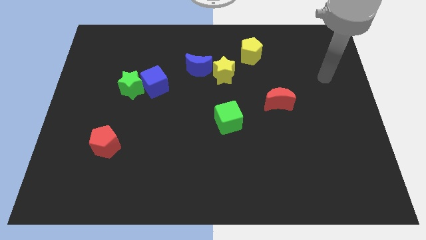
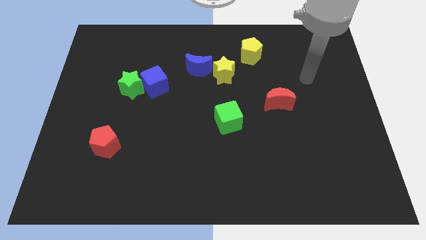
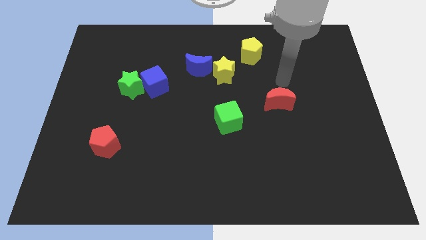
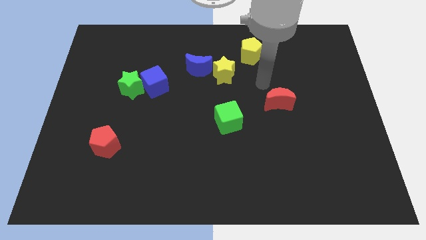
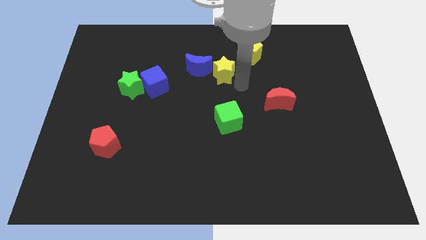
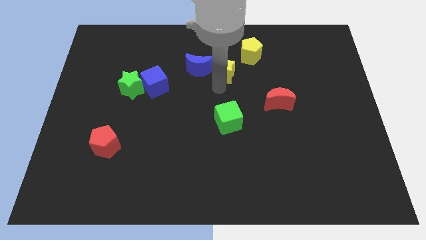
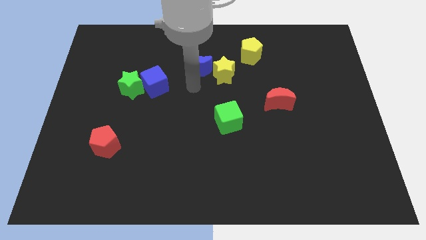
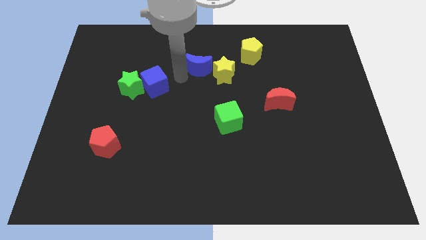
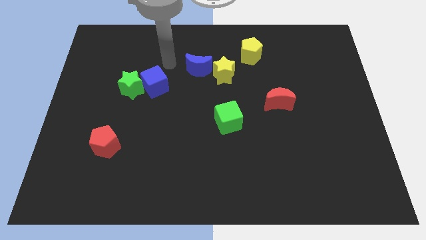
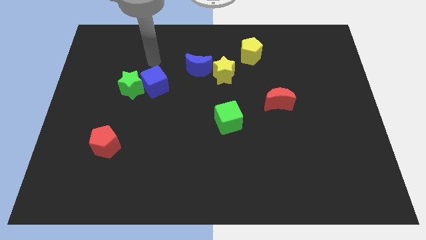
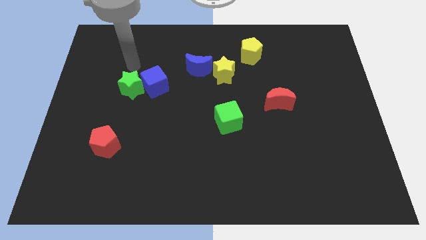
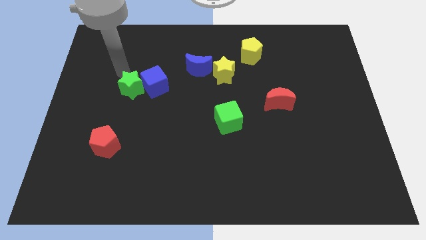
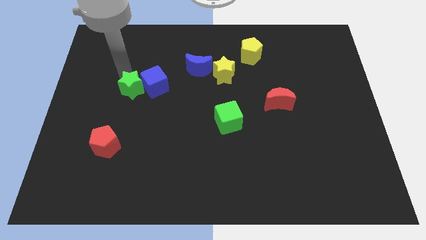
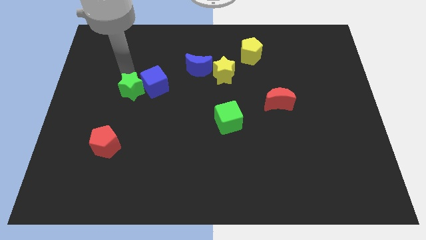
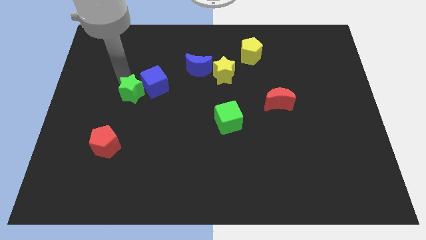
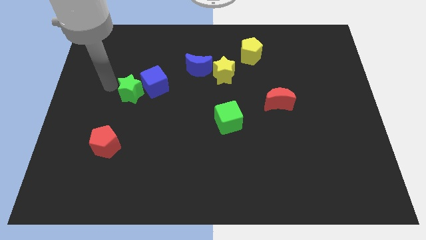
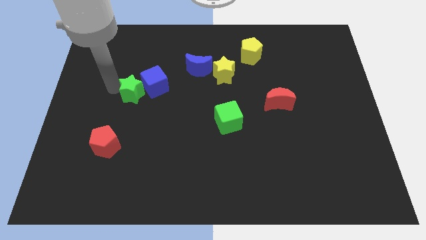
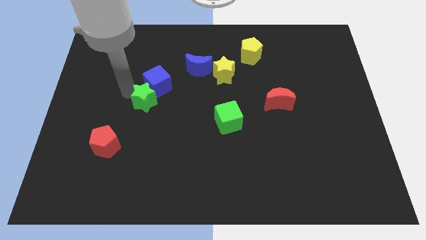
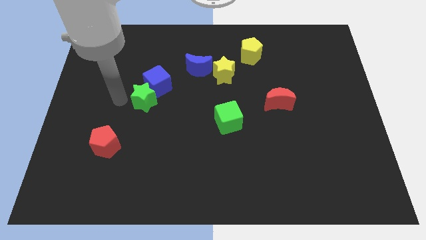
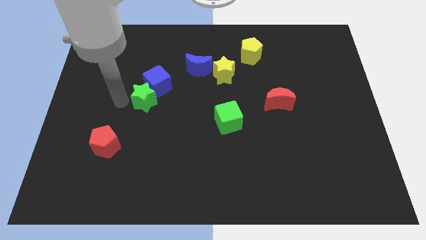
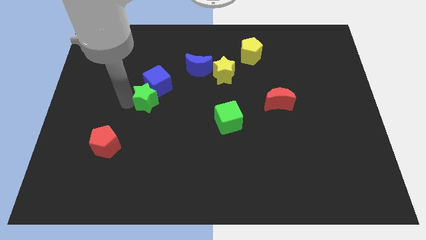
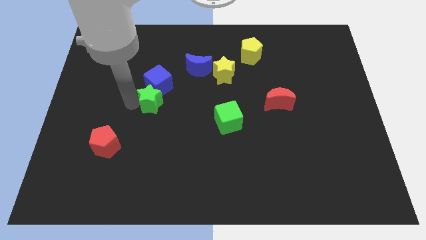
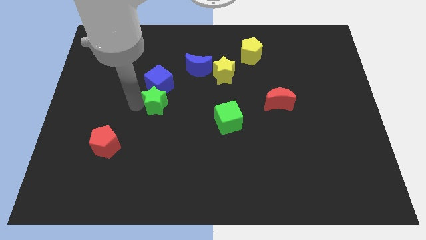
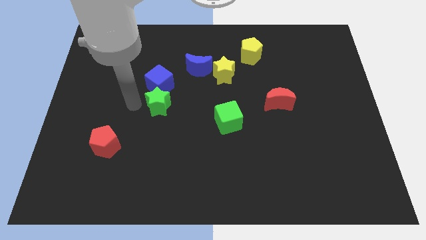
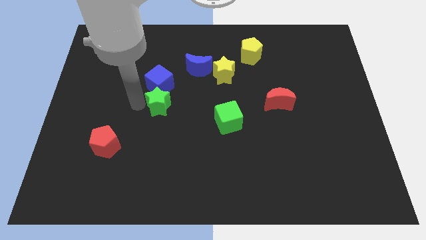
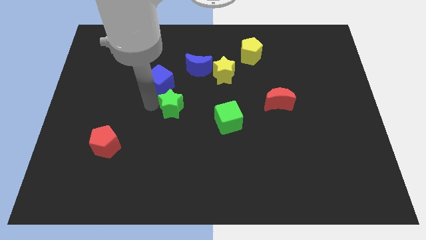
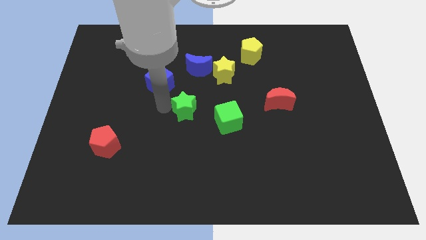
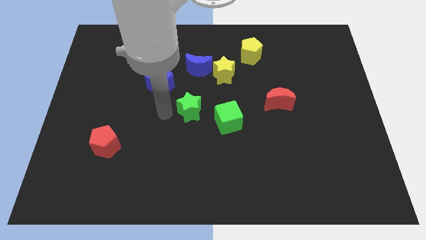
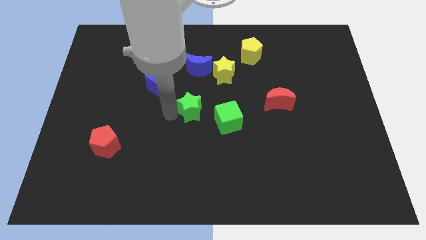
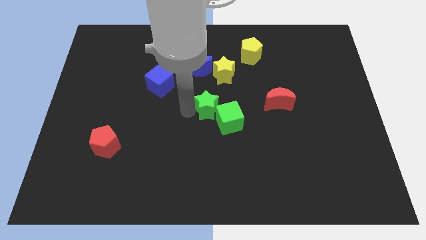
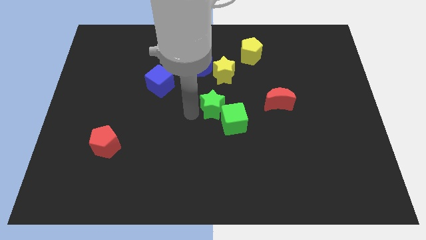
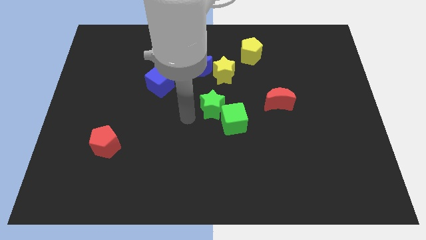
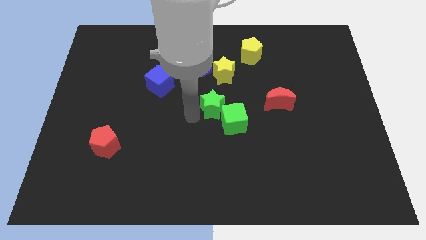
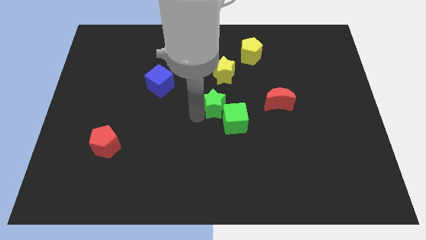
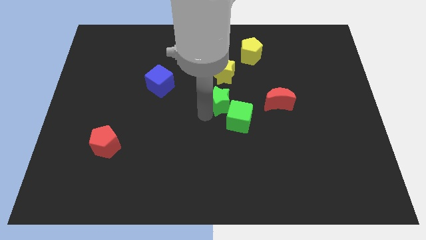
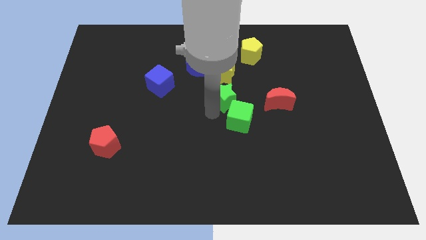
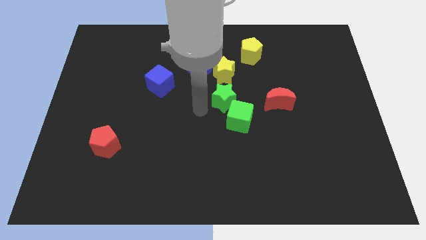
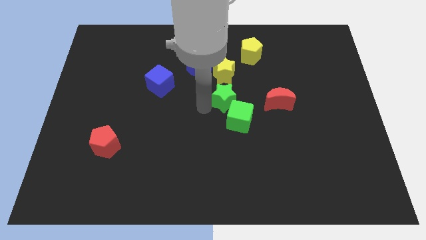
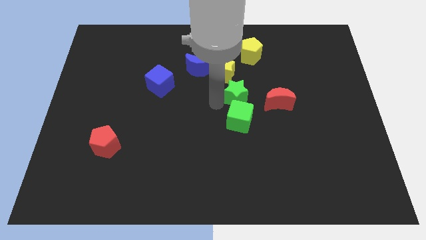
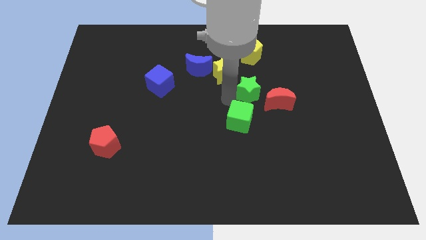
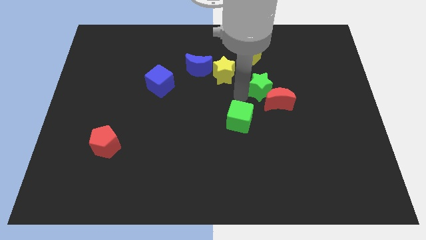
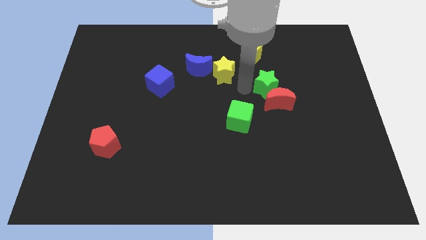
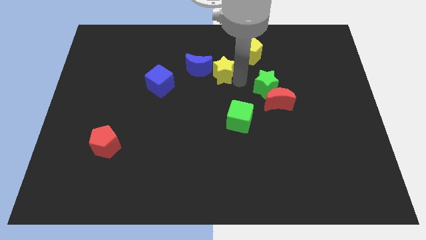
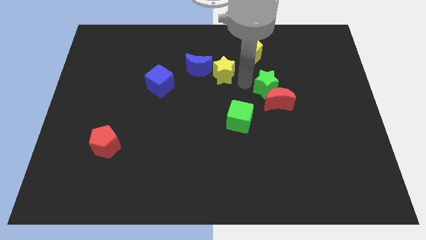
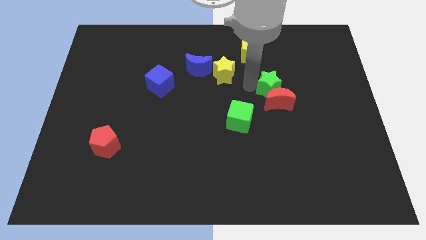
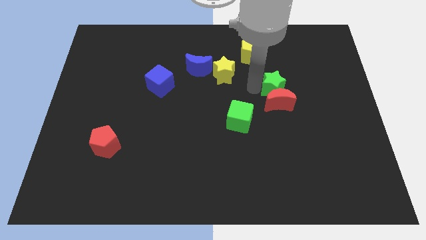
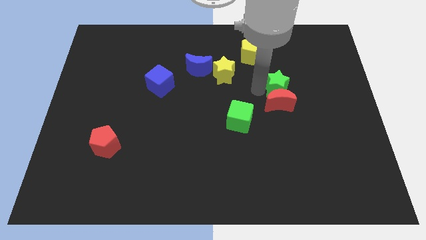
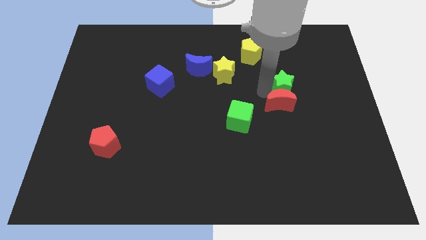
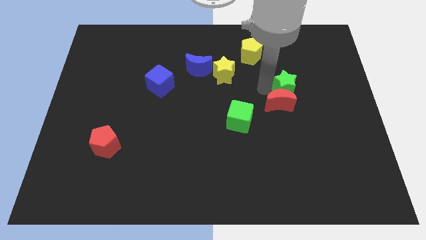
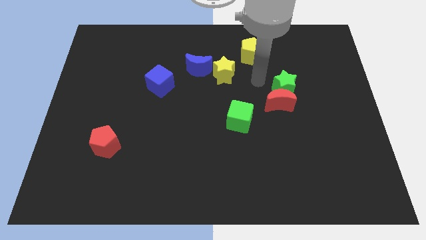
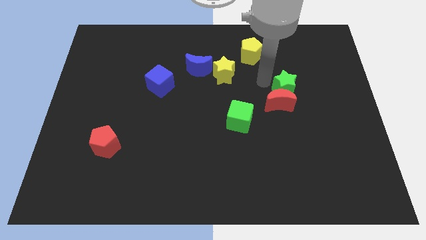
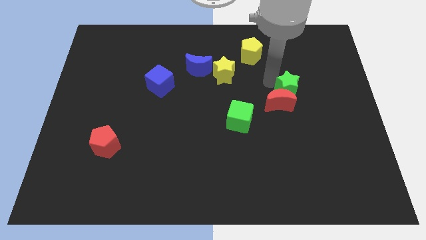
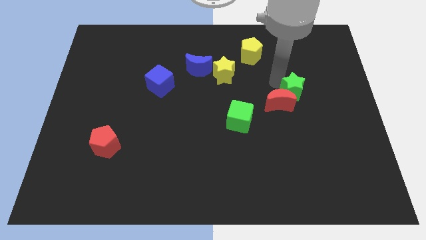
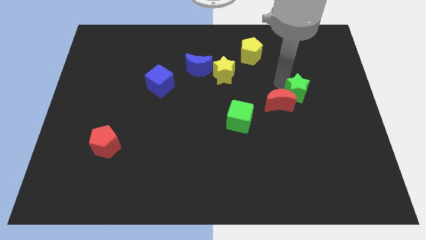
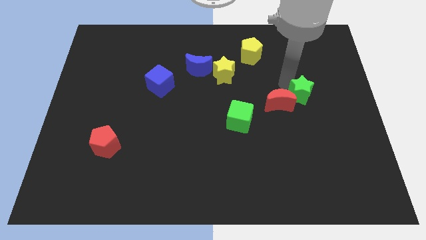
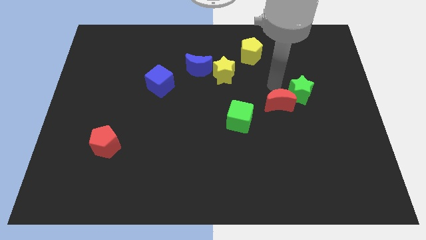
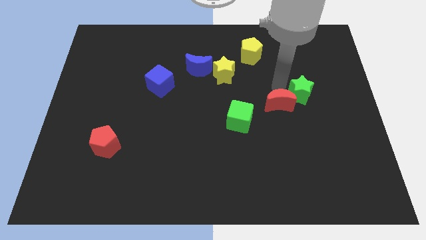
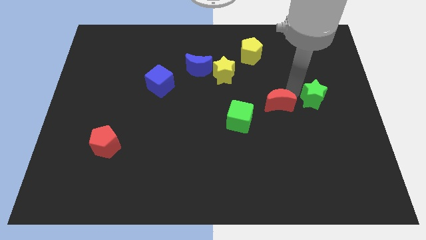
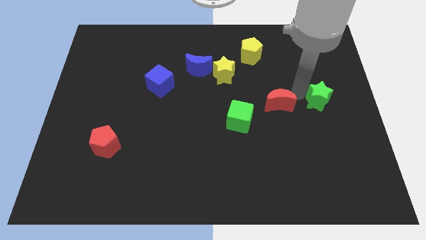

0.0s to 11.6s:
push the green star to the center right
